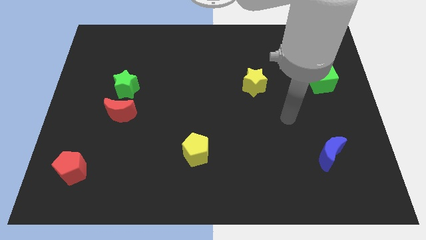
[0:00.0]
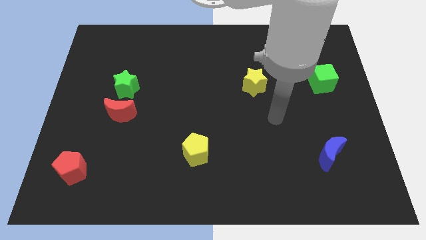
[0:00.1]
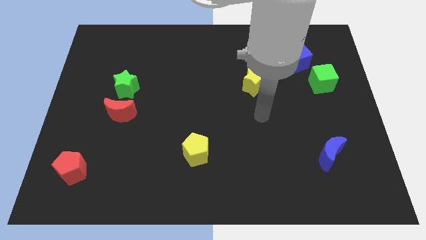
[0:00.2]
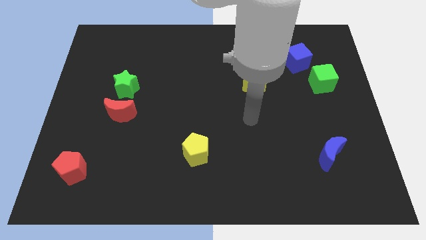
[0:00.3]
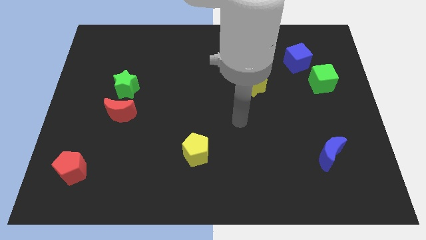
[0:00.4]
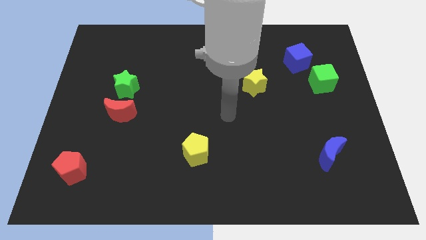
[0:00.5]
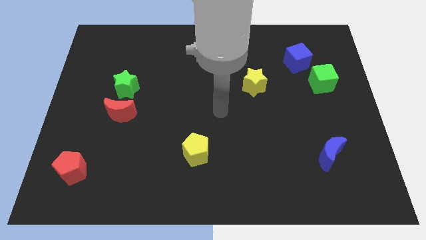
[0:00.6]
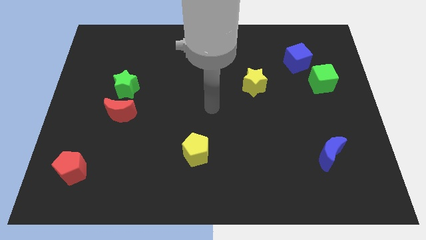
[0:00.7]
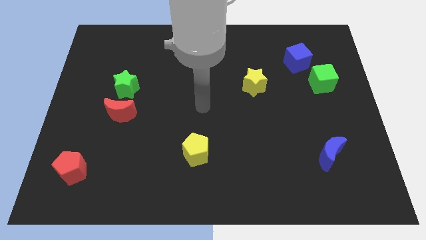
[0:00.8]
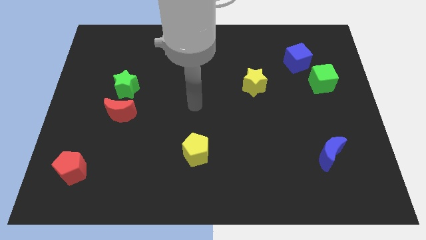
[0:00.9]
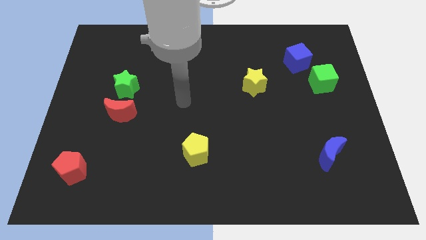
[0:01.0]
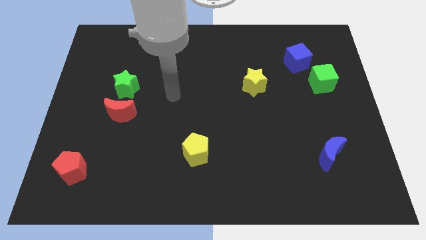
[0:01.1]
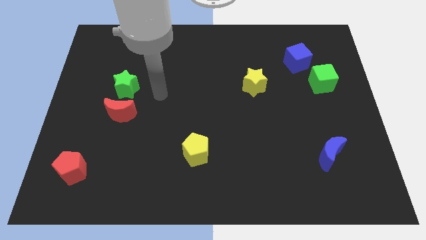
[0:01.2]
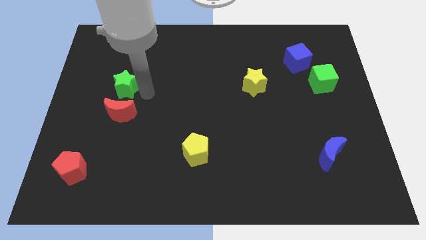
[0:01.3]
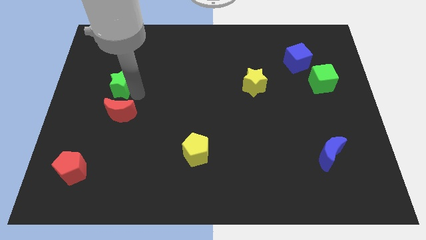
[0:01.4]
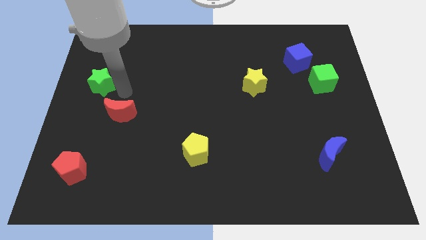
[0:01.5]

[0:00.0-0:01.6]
pull the red moon apart from the green star

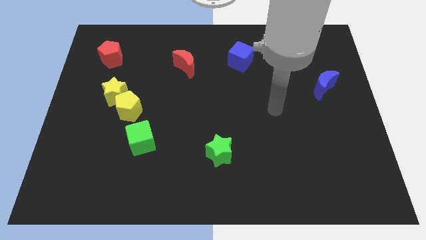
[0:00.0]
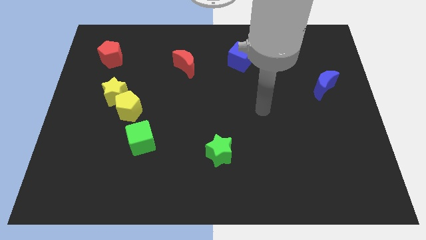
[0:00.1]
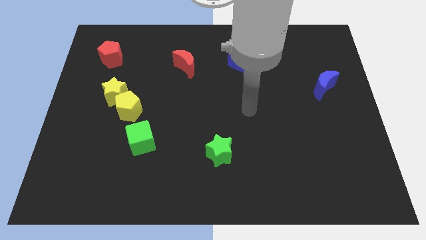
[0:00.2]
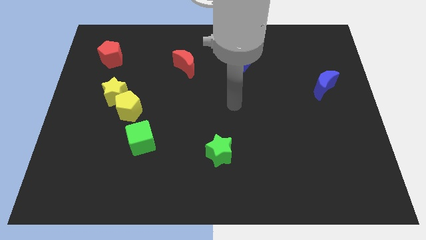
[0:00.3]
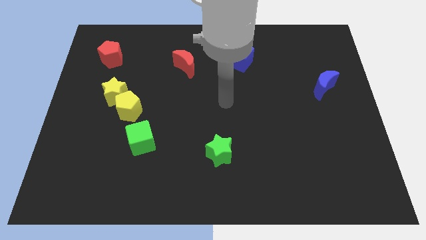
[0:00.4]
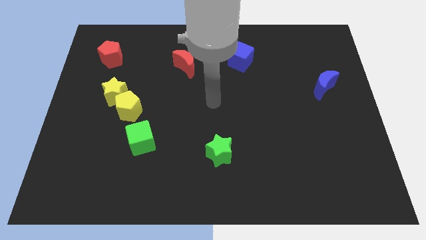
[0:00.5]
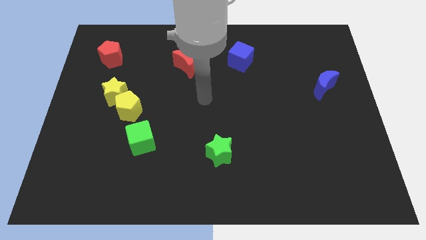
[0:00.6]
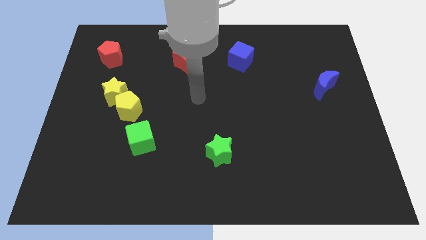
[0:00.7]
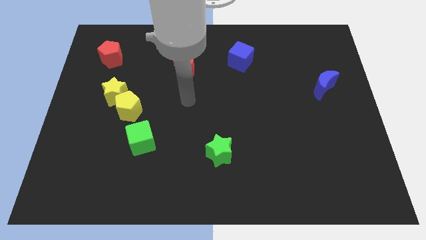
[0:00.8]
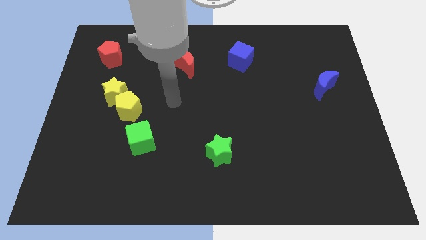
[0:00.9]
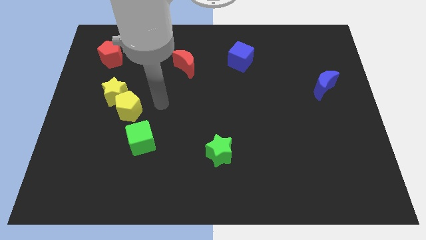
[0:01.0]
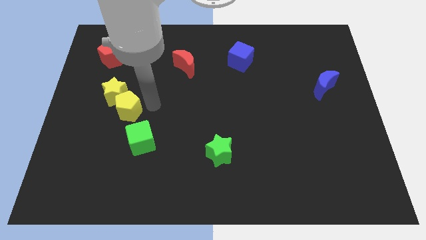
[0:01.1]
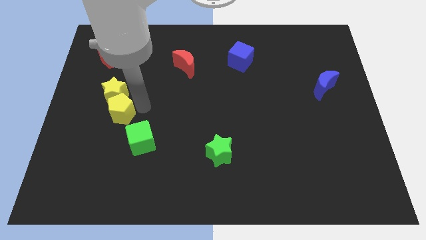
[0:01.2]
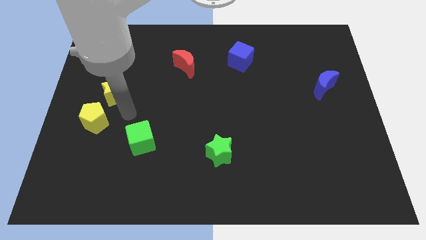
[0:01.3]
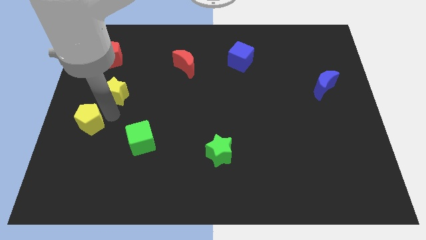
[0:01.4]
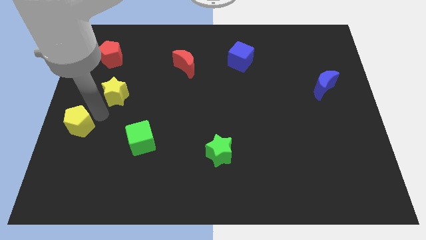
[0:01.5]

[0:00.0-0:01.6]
pull the yellow star apart from the yellow pentagon

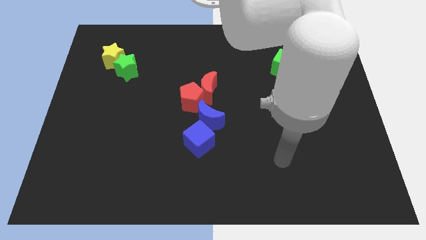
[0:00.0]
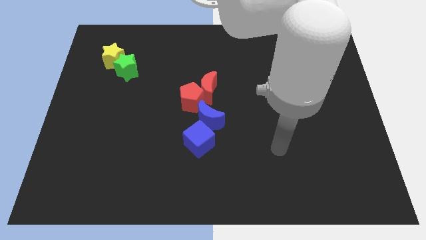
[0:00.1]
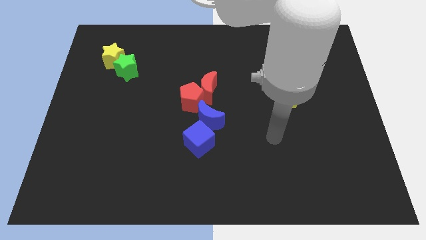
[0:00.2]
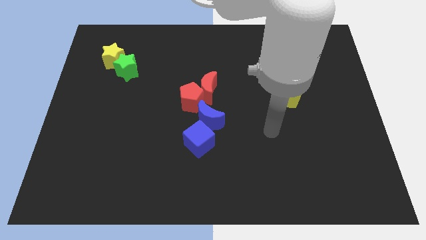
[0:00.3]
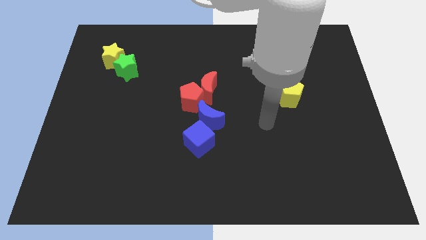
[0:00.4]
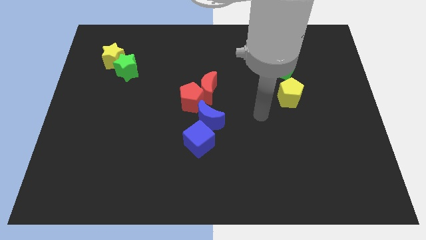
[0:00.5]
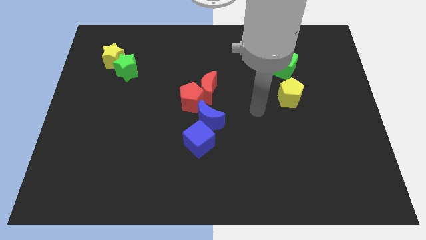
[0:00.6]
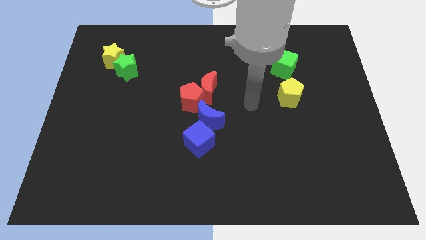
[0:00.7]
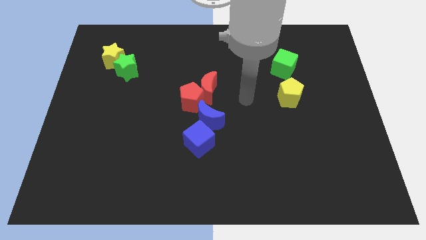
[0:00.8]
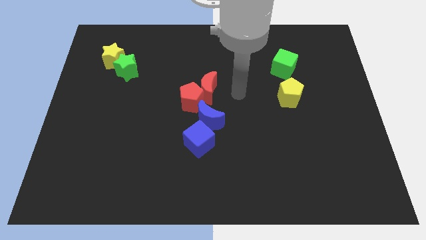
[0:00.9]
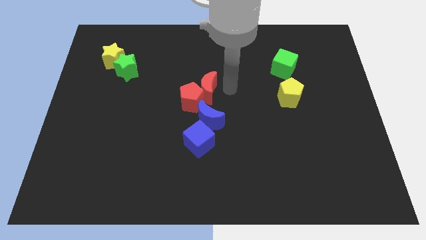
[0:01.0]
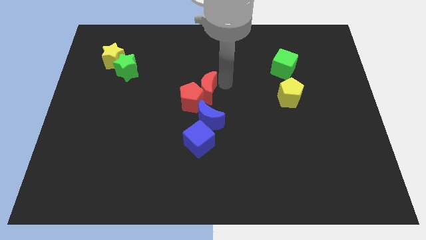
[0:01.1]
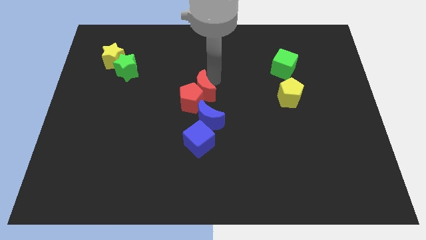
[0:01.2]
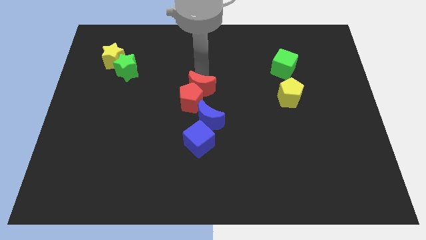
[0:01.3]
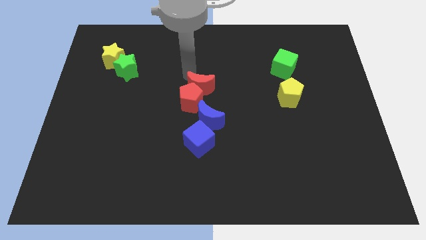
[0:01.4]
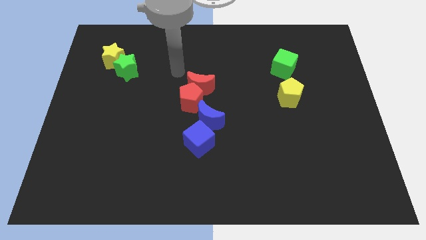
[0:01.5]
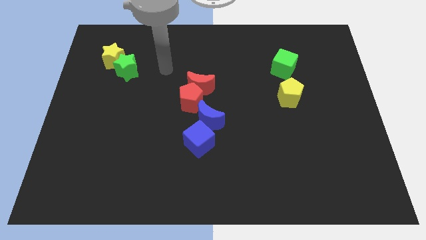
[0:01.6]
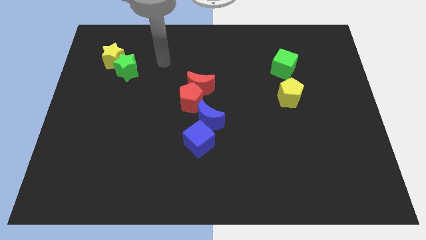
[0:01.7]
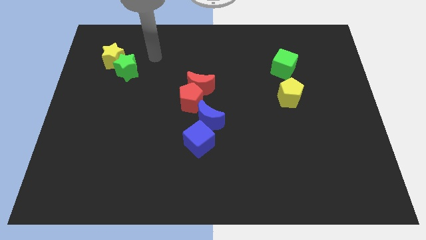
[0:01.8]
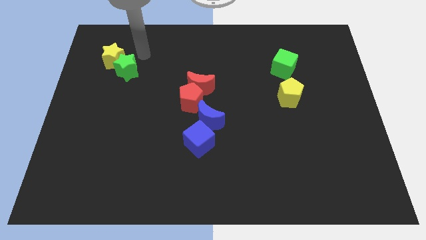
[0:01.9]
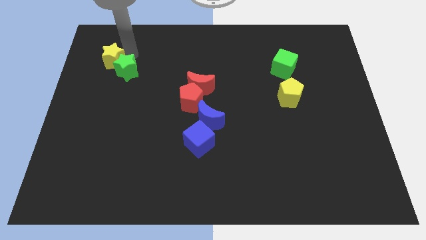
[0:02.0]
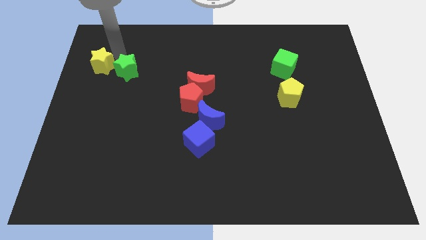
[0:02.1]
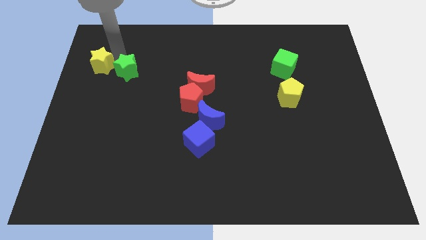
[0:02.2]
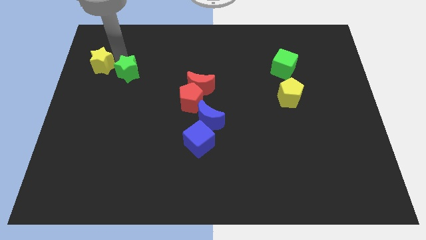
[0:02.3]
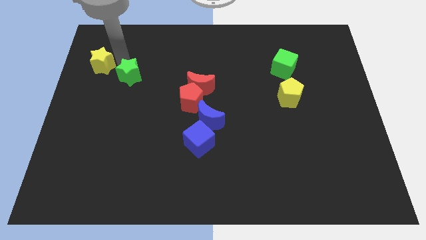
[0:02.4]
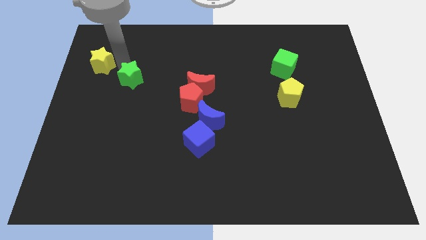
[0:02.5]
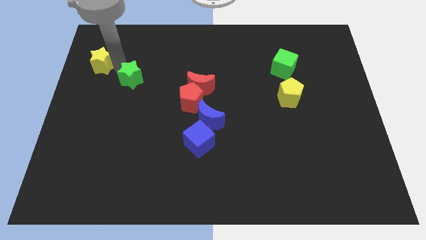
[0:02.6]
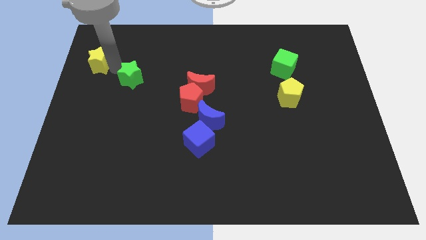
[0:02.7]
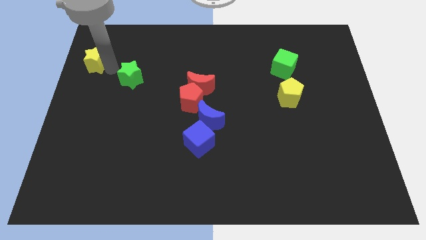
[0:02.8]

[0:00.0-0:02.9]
separate the green star from the yellow star

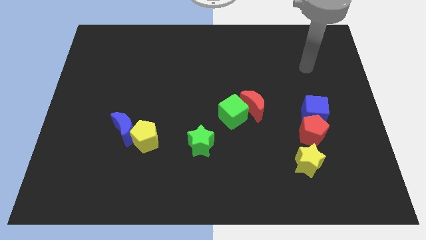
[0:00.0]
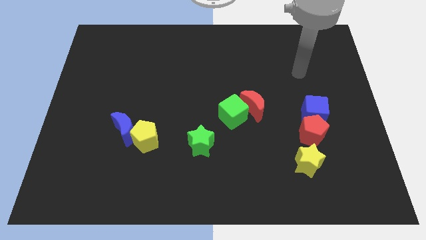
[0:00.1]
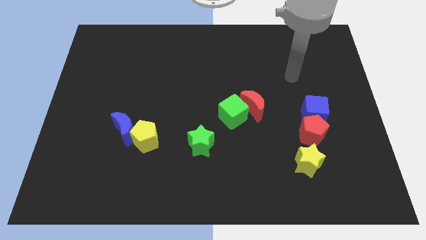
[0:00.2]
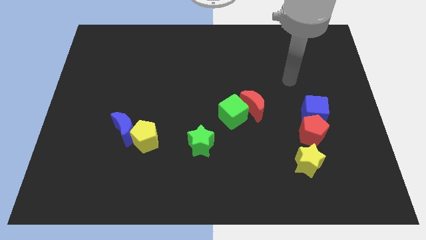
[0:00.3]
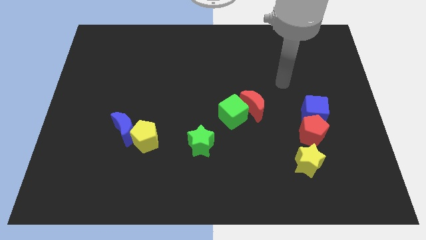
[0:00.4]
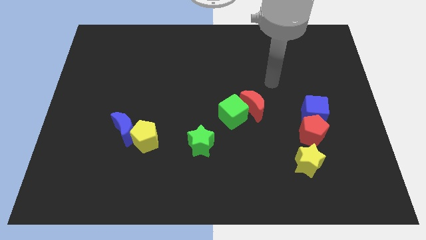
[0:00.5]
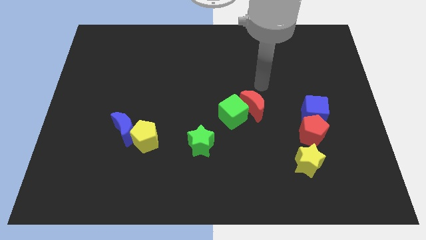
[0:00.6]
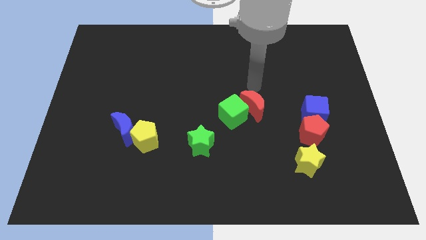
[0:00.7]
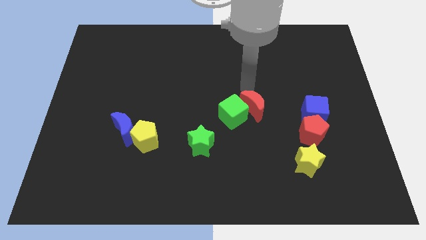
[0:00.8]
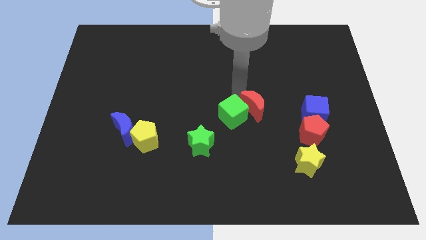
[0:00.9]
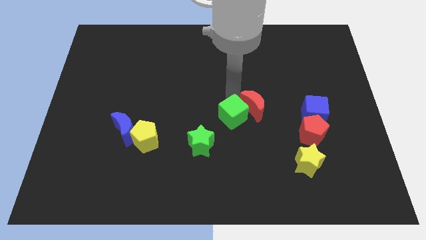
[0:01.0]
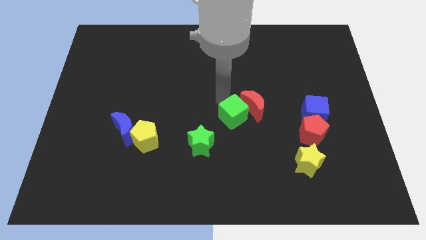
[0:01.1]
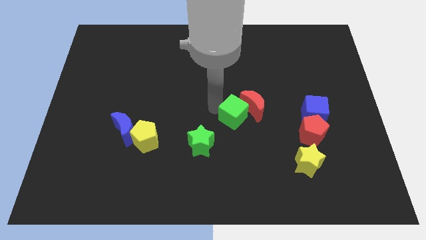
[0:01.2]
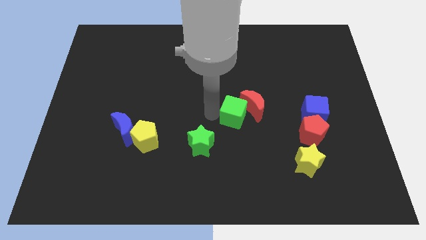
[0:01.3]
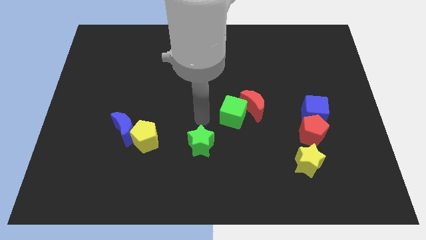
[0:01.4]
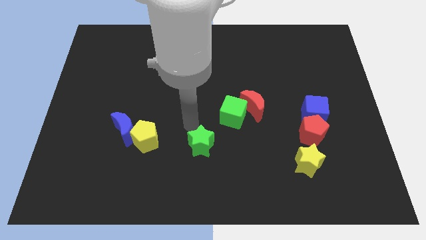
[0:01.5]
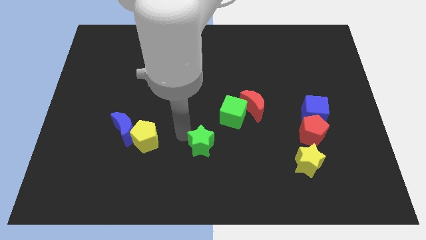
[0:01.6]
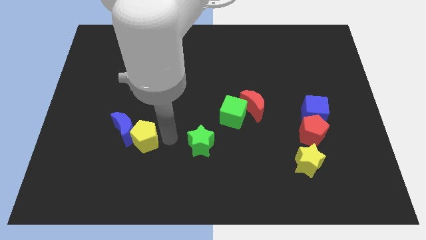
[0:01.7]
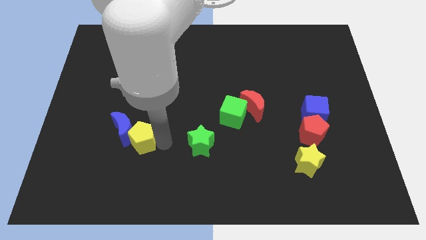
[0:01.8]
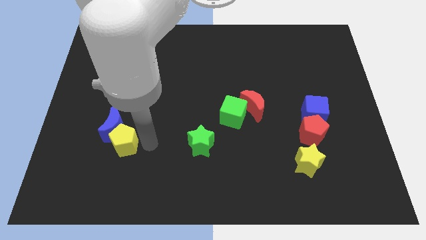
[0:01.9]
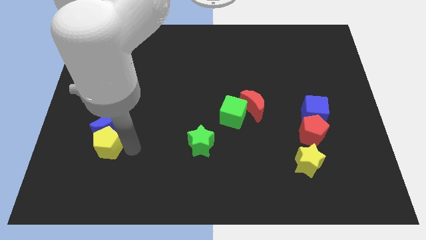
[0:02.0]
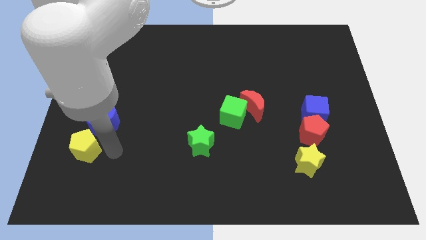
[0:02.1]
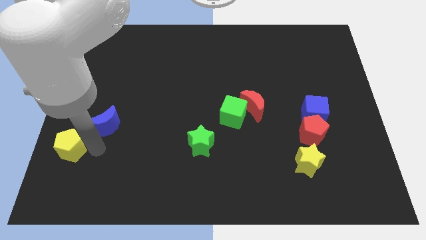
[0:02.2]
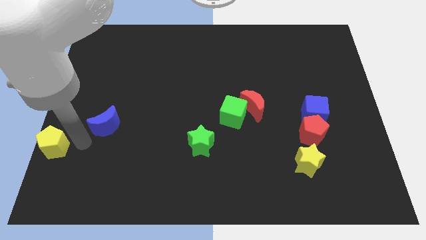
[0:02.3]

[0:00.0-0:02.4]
move the blue moon away from the yellow pentagon

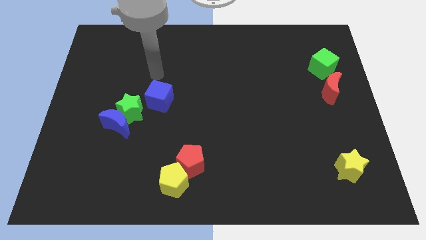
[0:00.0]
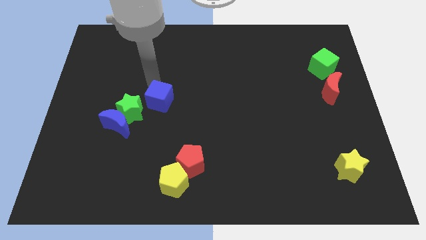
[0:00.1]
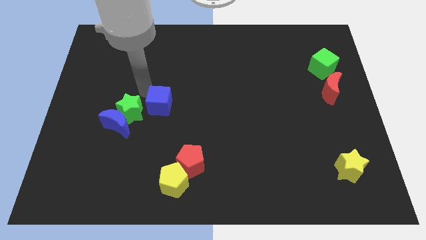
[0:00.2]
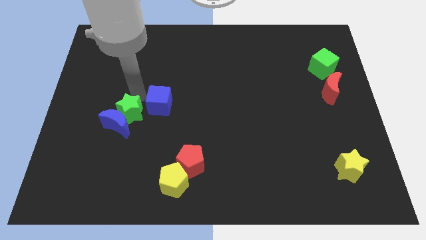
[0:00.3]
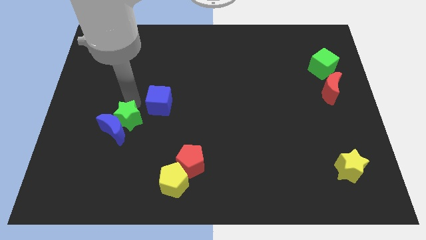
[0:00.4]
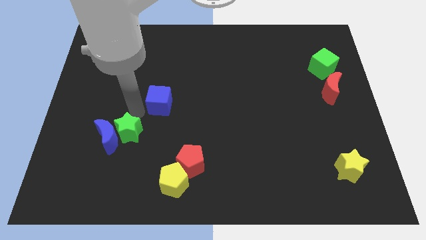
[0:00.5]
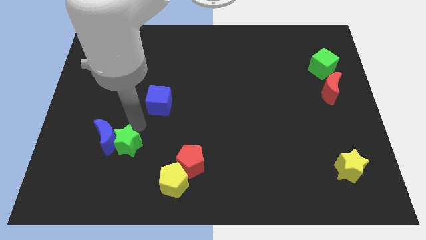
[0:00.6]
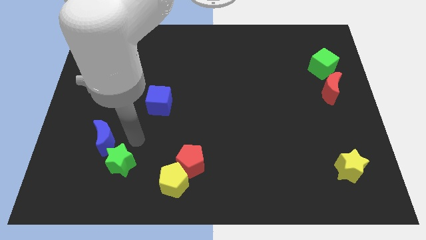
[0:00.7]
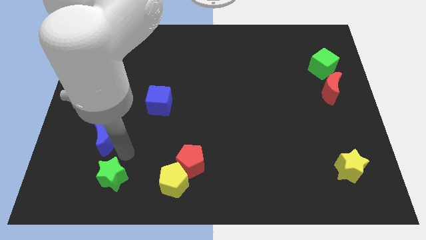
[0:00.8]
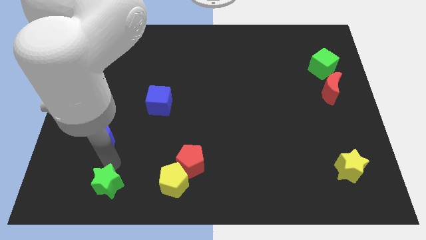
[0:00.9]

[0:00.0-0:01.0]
pull the blue moon apart from the green star
